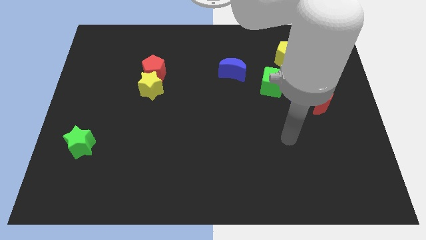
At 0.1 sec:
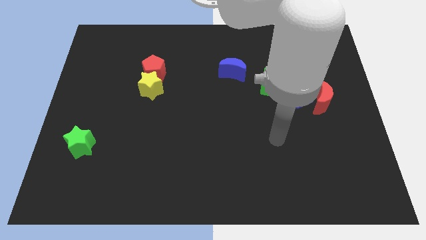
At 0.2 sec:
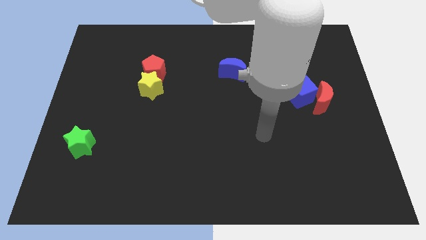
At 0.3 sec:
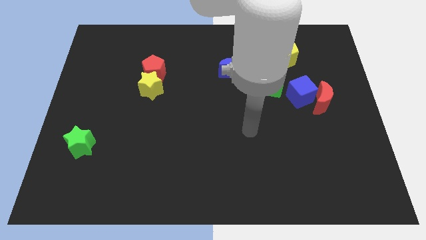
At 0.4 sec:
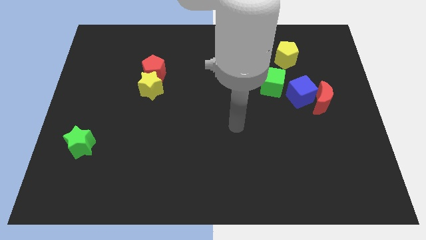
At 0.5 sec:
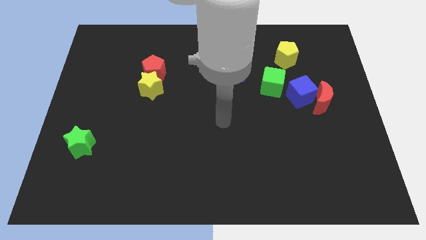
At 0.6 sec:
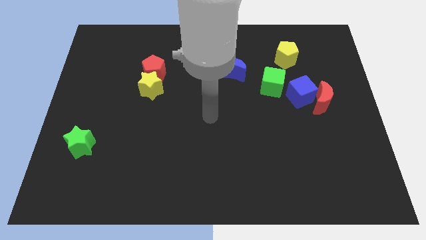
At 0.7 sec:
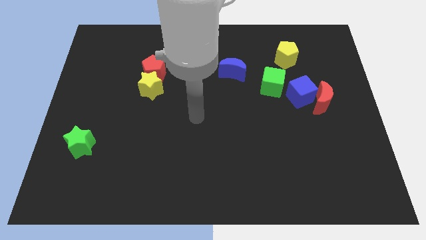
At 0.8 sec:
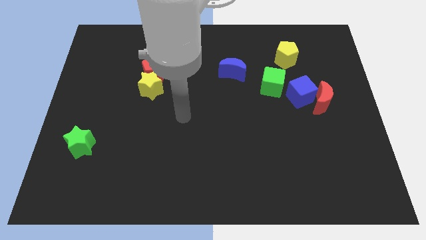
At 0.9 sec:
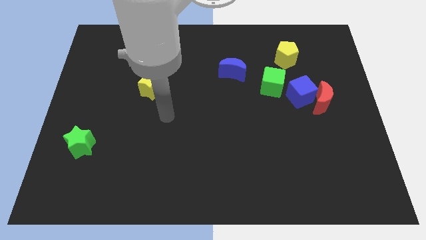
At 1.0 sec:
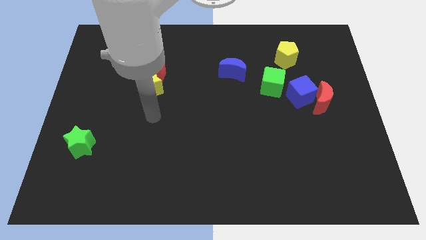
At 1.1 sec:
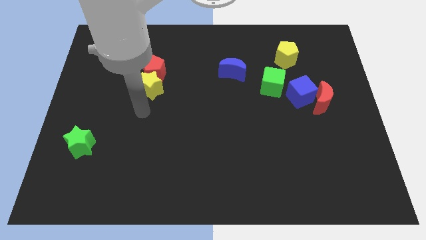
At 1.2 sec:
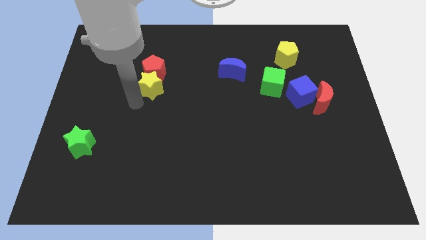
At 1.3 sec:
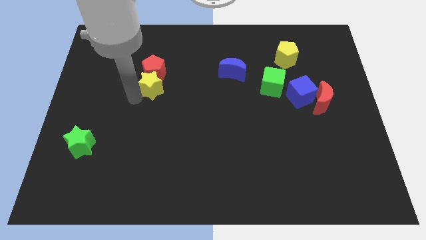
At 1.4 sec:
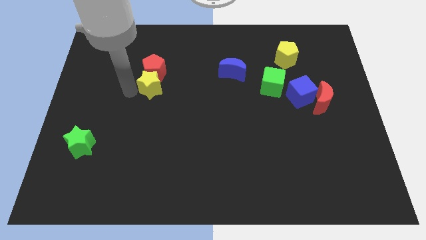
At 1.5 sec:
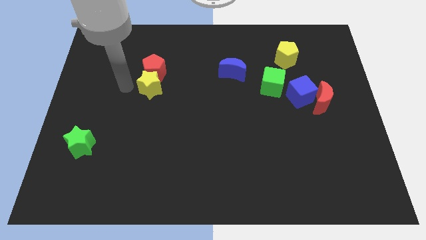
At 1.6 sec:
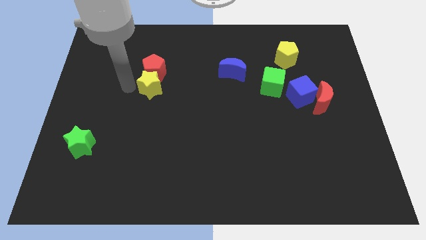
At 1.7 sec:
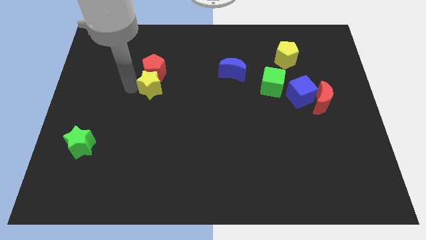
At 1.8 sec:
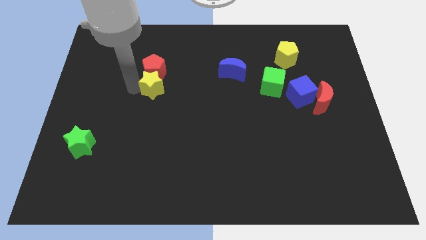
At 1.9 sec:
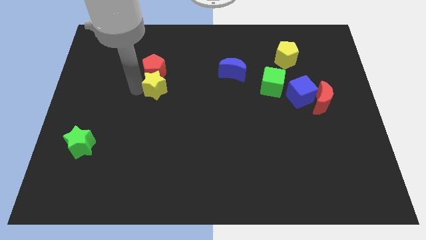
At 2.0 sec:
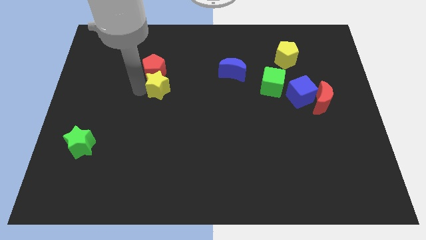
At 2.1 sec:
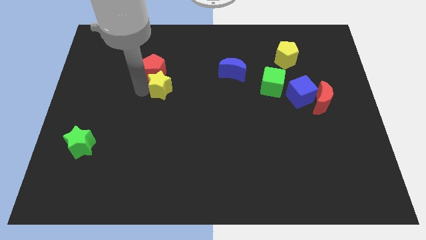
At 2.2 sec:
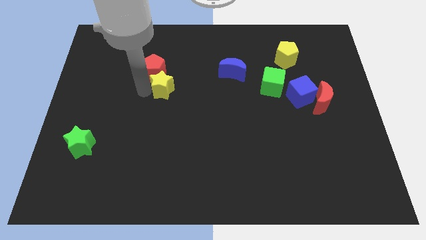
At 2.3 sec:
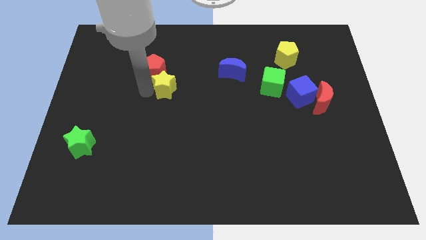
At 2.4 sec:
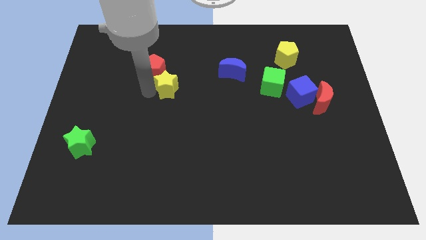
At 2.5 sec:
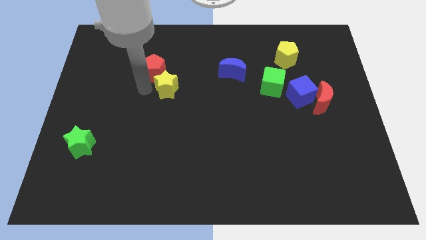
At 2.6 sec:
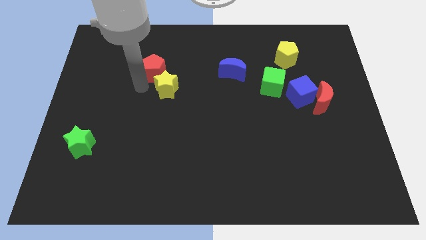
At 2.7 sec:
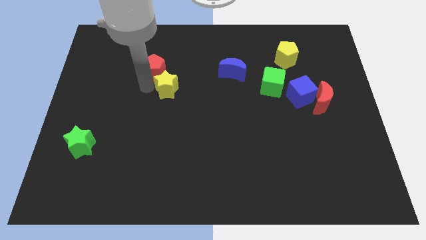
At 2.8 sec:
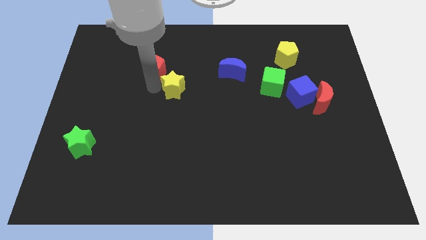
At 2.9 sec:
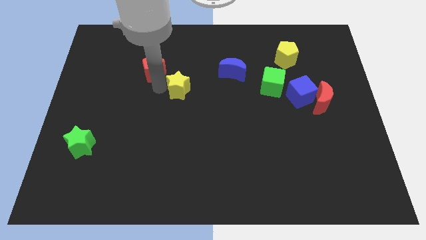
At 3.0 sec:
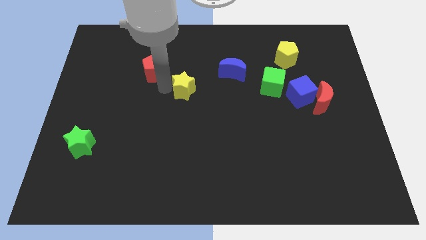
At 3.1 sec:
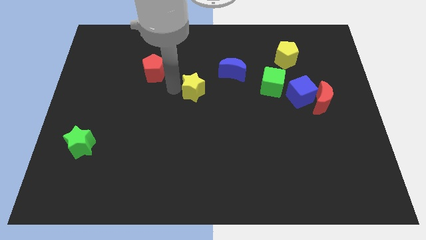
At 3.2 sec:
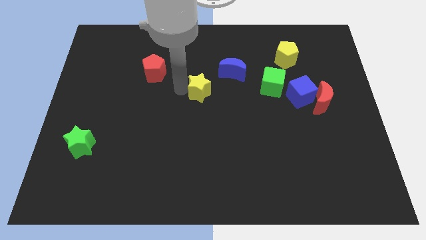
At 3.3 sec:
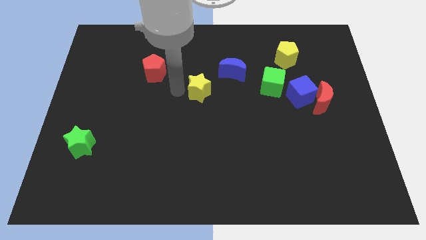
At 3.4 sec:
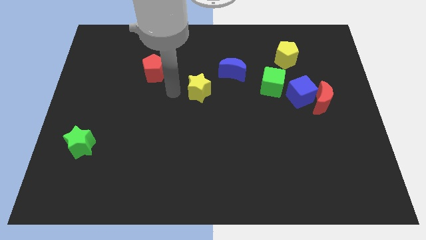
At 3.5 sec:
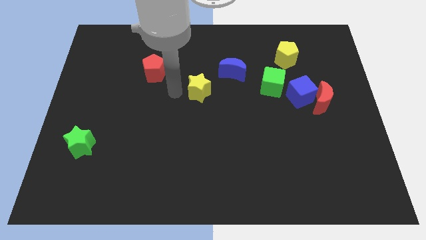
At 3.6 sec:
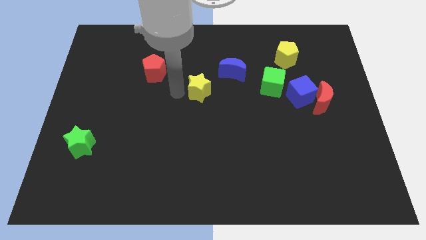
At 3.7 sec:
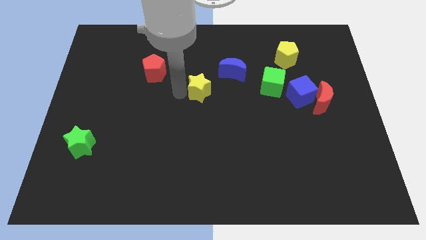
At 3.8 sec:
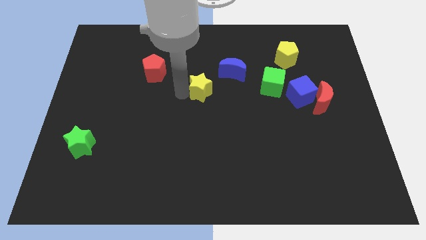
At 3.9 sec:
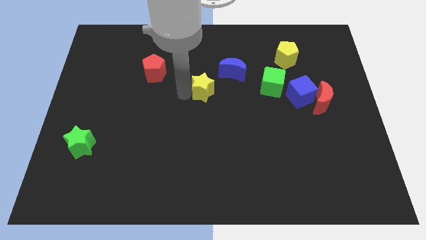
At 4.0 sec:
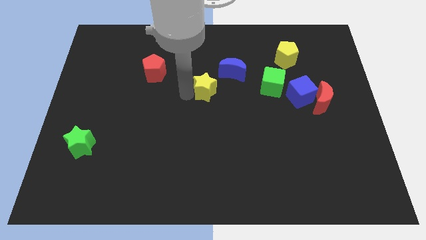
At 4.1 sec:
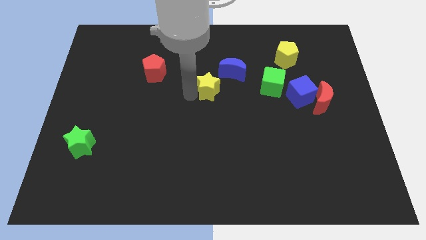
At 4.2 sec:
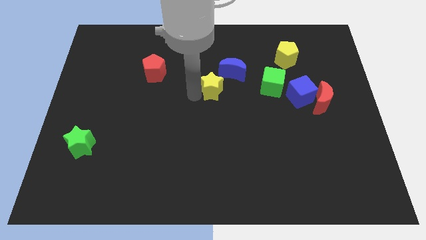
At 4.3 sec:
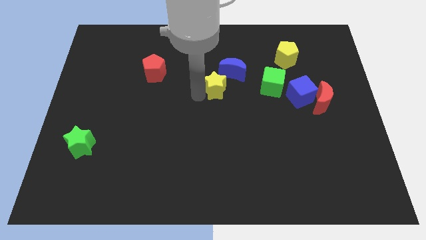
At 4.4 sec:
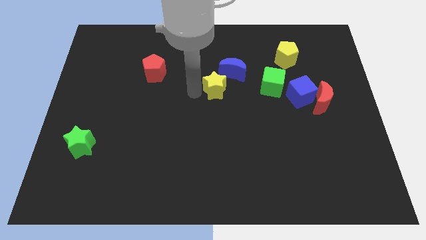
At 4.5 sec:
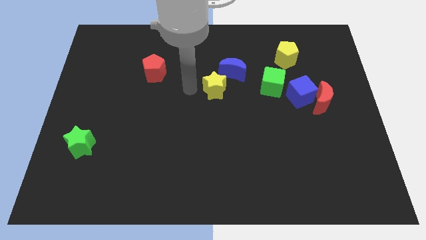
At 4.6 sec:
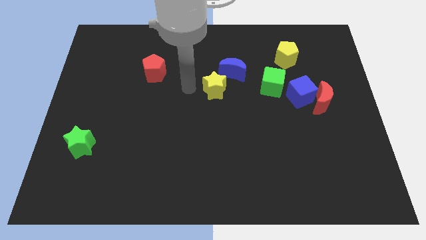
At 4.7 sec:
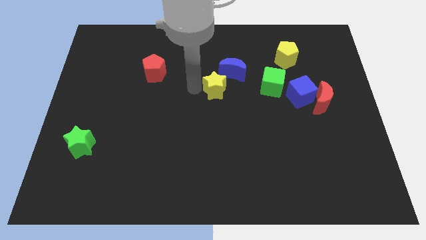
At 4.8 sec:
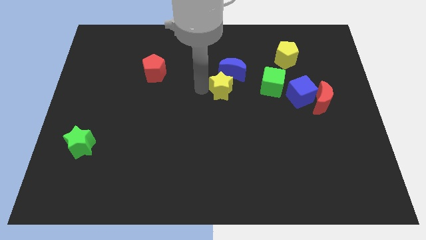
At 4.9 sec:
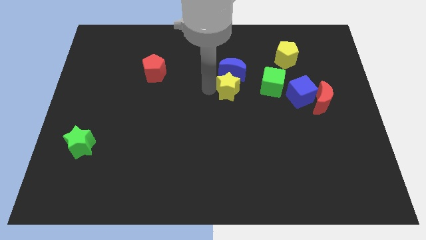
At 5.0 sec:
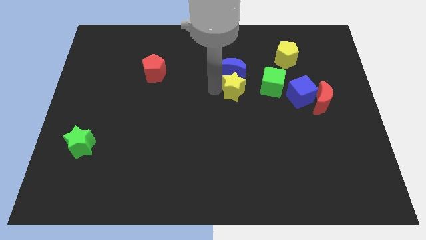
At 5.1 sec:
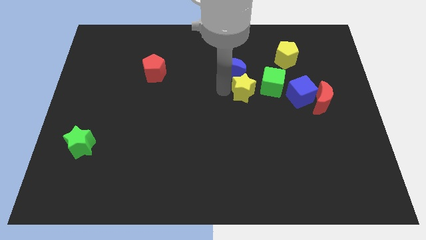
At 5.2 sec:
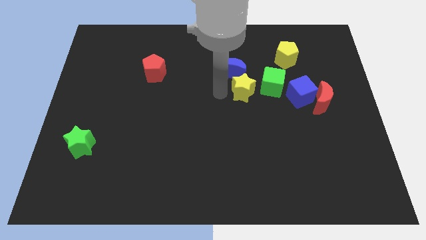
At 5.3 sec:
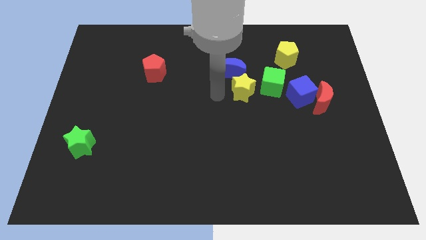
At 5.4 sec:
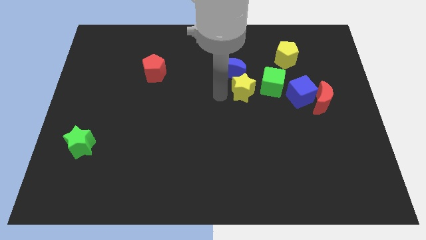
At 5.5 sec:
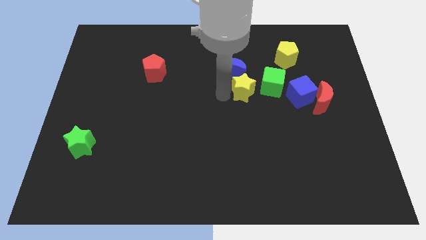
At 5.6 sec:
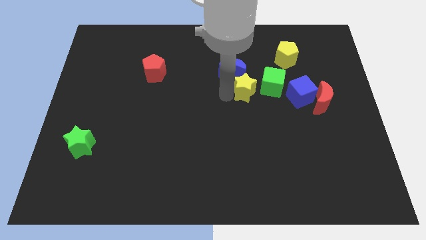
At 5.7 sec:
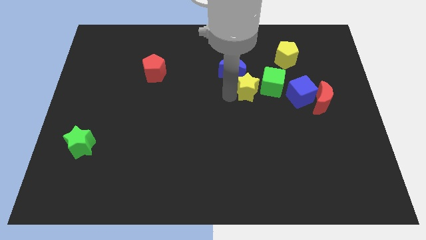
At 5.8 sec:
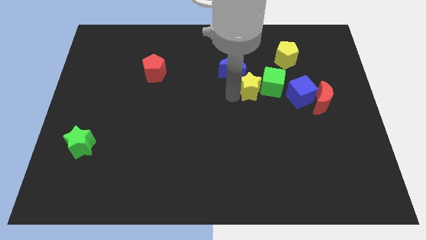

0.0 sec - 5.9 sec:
slide the yellow star close to the green cube

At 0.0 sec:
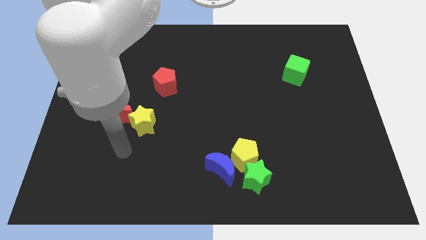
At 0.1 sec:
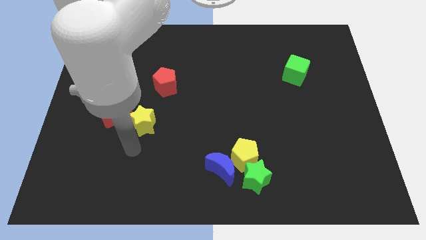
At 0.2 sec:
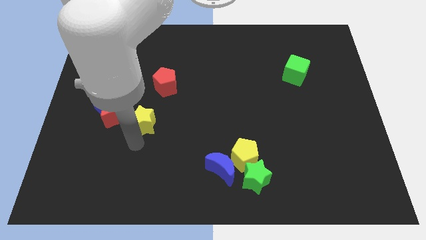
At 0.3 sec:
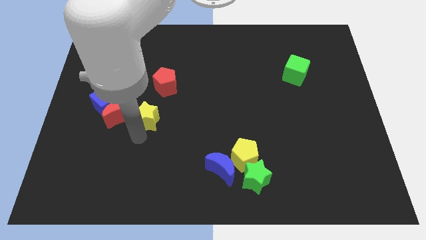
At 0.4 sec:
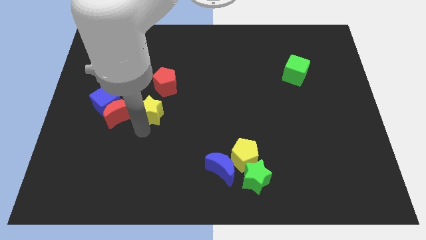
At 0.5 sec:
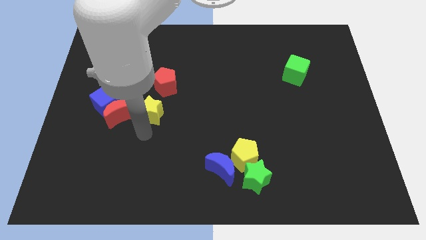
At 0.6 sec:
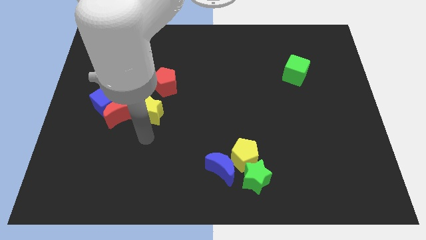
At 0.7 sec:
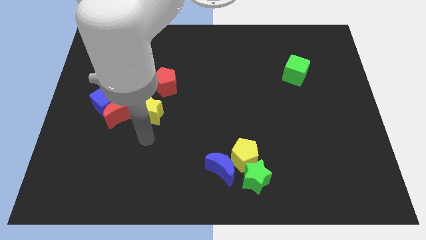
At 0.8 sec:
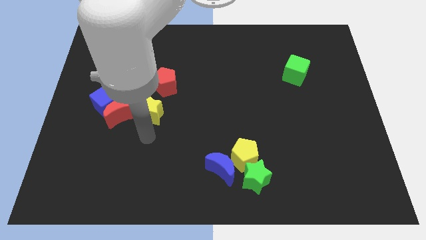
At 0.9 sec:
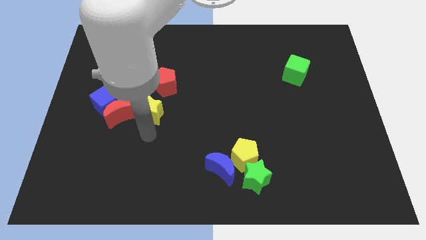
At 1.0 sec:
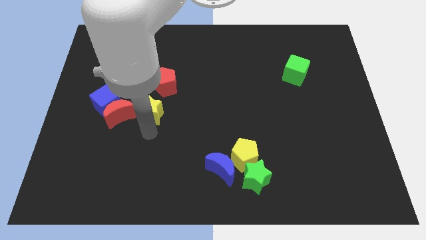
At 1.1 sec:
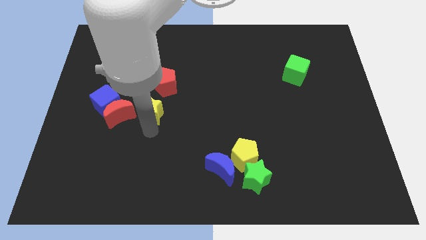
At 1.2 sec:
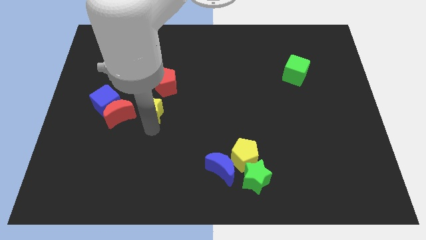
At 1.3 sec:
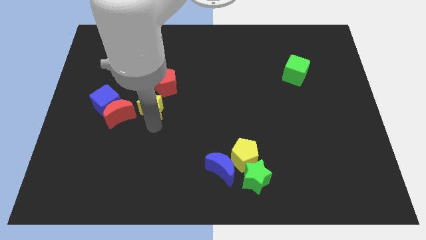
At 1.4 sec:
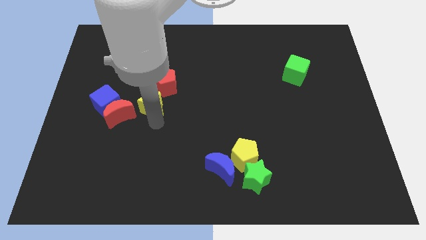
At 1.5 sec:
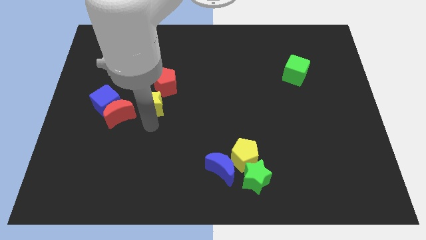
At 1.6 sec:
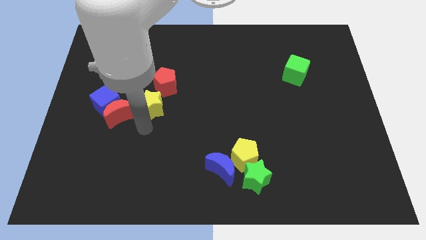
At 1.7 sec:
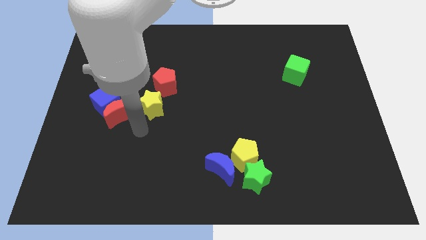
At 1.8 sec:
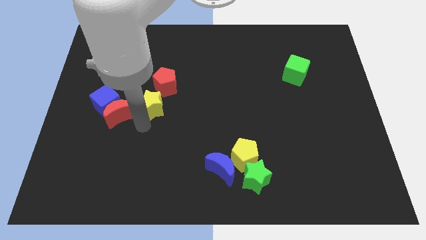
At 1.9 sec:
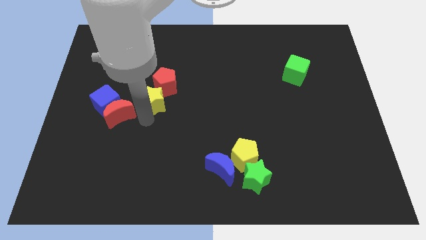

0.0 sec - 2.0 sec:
slide the yellow star next to the red pentagon
